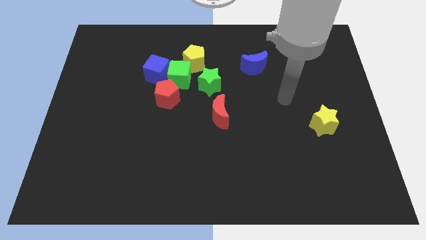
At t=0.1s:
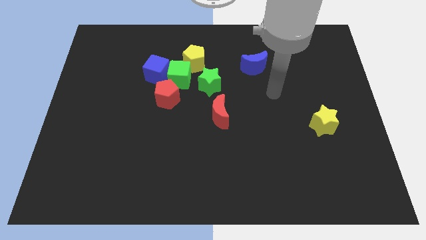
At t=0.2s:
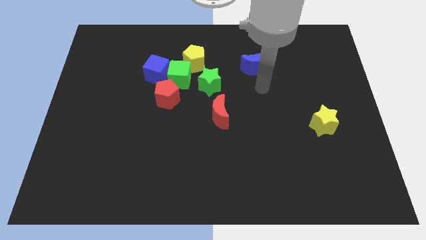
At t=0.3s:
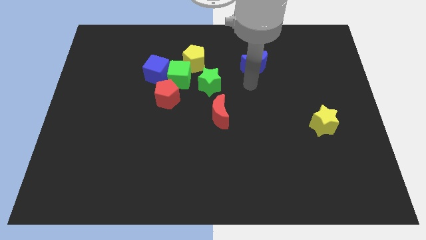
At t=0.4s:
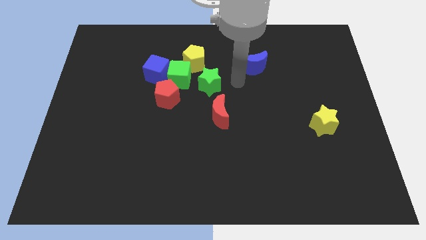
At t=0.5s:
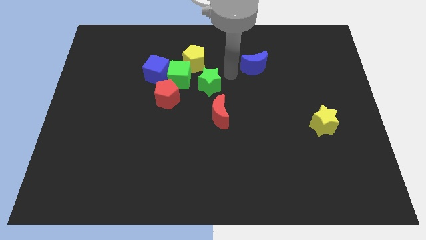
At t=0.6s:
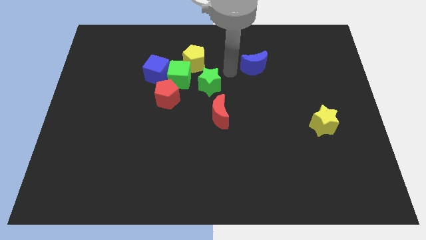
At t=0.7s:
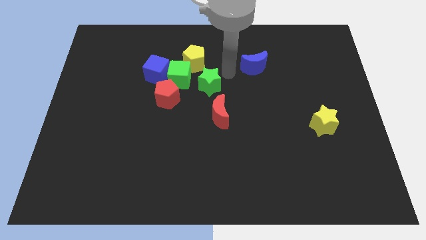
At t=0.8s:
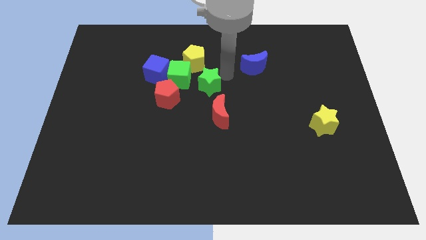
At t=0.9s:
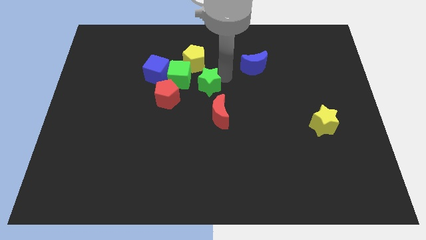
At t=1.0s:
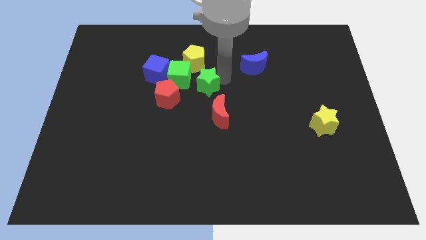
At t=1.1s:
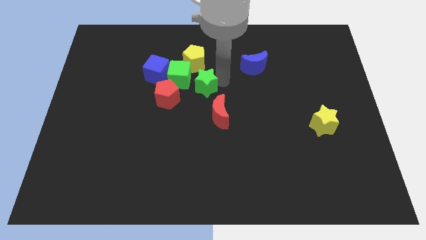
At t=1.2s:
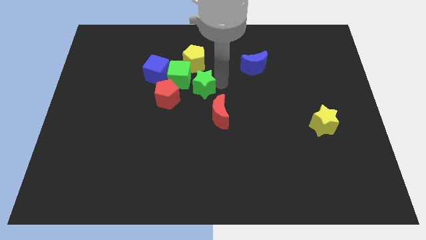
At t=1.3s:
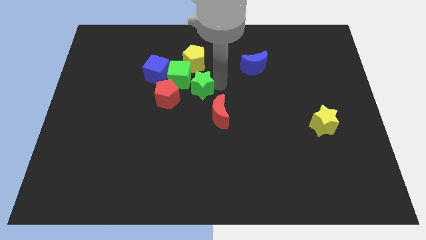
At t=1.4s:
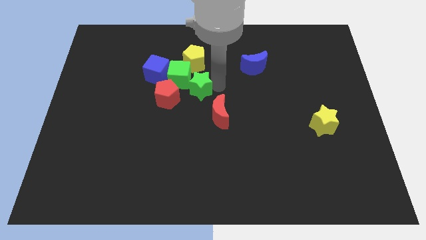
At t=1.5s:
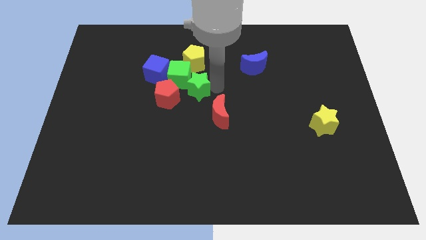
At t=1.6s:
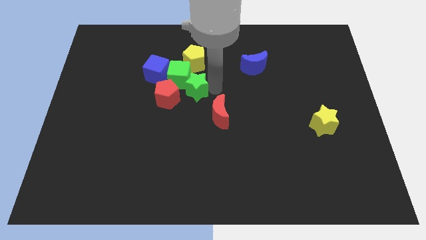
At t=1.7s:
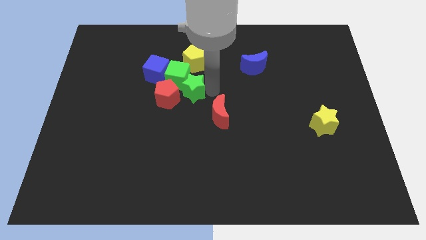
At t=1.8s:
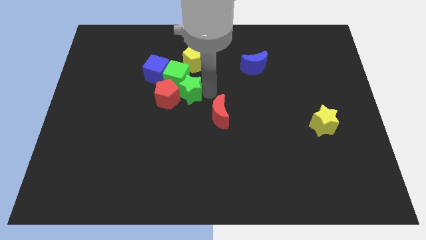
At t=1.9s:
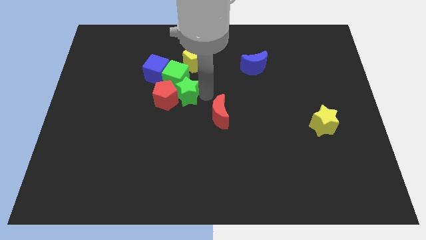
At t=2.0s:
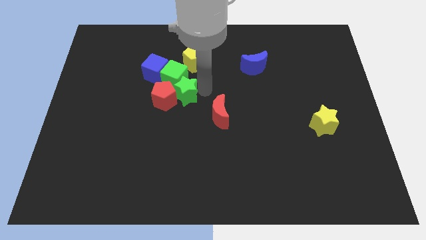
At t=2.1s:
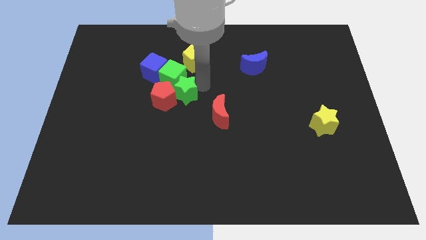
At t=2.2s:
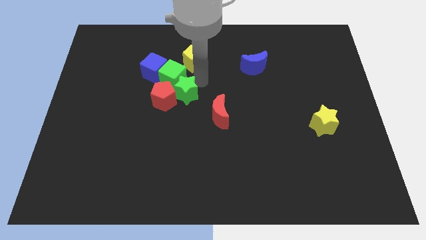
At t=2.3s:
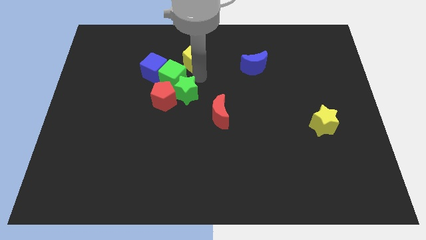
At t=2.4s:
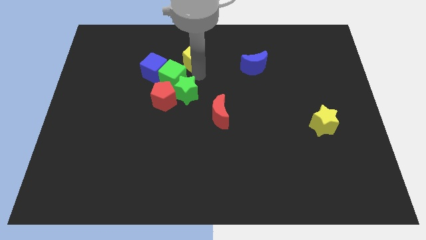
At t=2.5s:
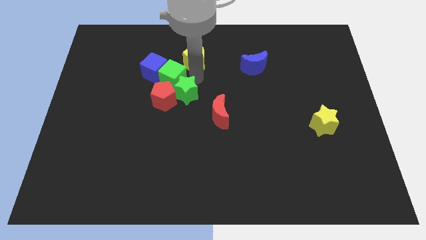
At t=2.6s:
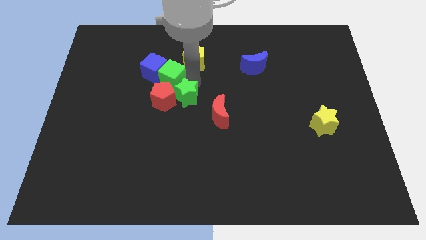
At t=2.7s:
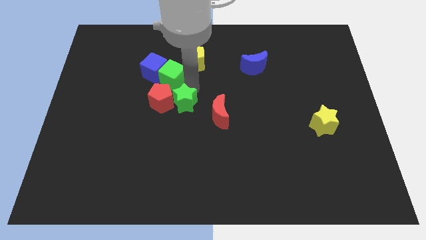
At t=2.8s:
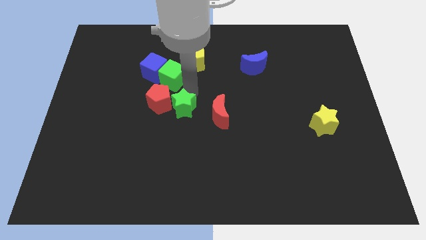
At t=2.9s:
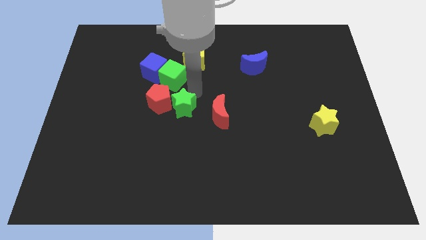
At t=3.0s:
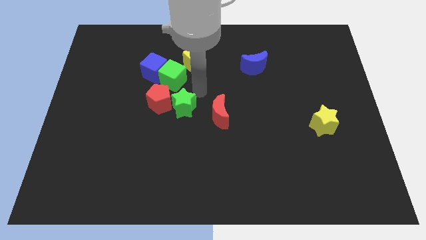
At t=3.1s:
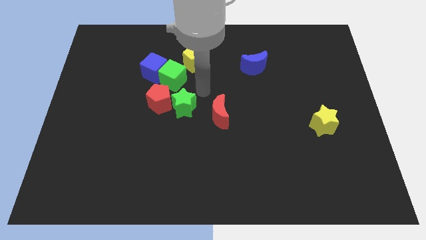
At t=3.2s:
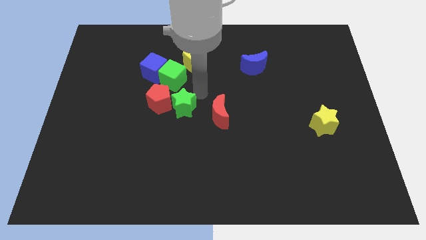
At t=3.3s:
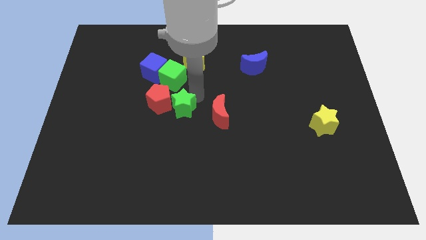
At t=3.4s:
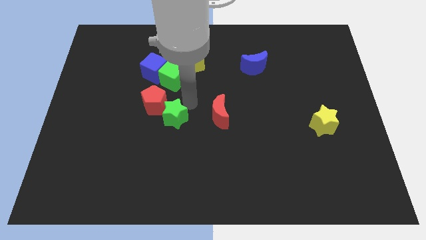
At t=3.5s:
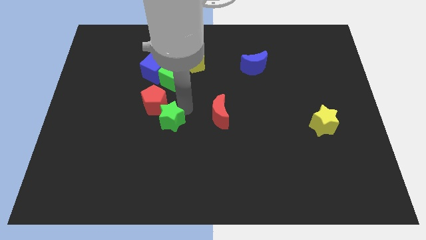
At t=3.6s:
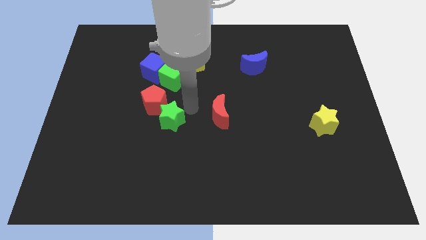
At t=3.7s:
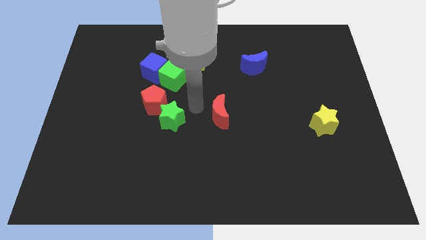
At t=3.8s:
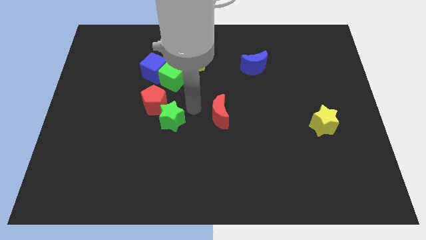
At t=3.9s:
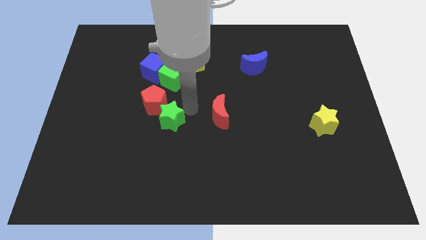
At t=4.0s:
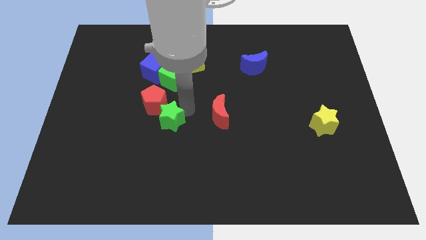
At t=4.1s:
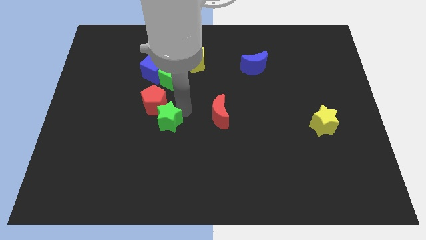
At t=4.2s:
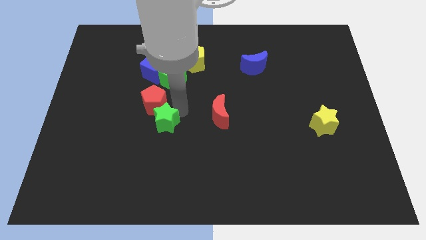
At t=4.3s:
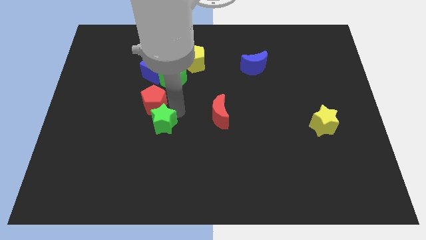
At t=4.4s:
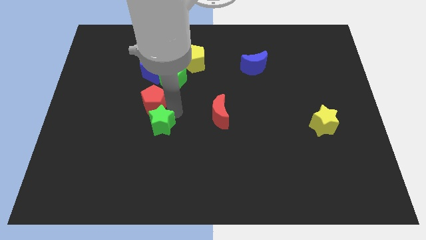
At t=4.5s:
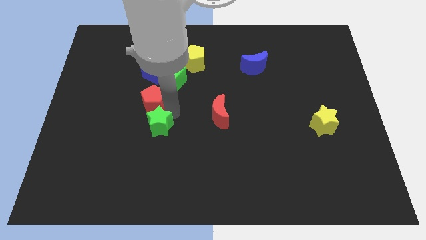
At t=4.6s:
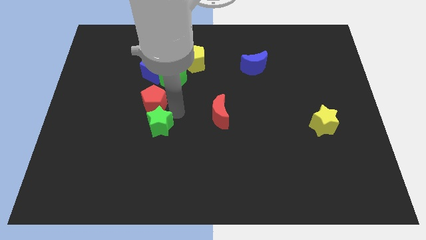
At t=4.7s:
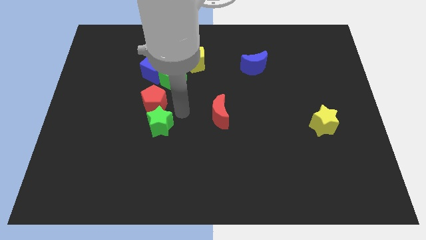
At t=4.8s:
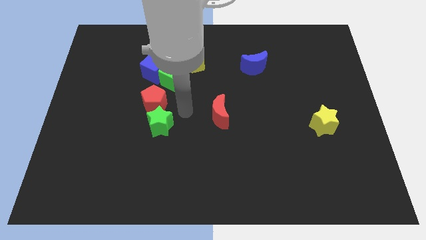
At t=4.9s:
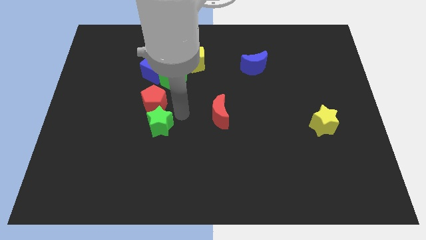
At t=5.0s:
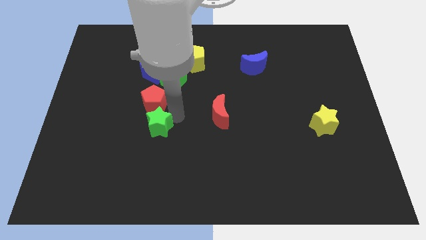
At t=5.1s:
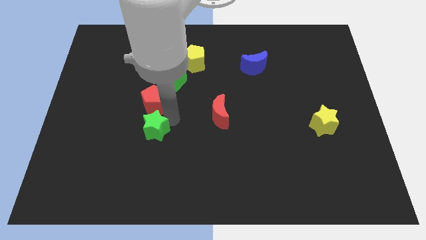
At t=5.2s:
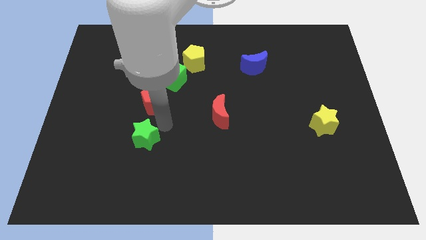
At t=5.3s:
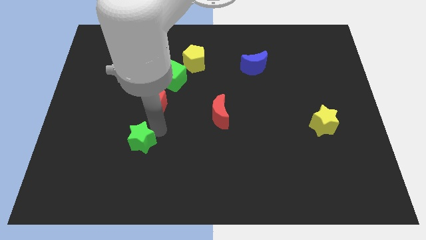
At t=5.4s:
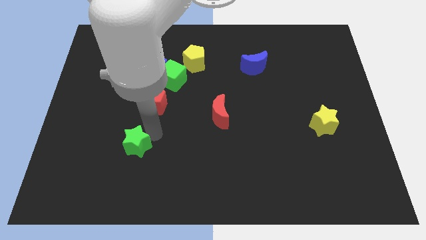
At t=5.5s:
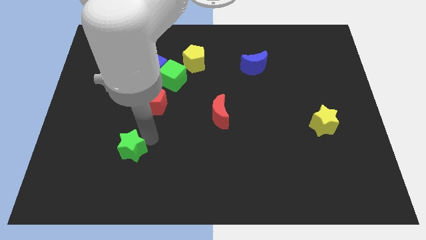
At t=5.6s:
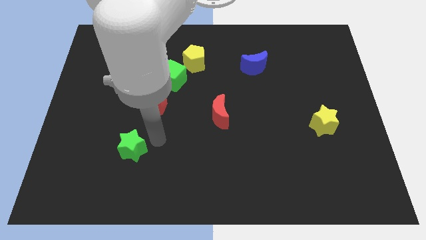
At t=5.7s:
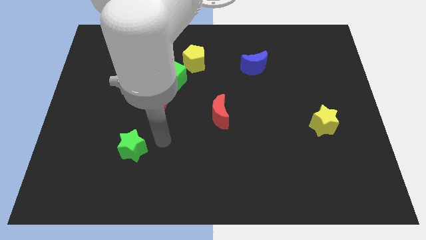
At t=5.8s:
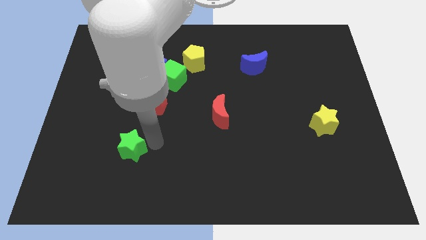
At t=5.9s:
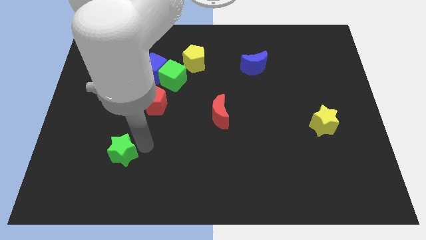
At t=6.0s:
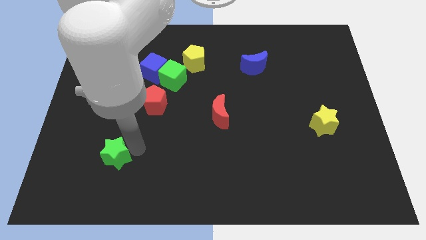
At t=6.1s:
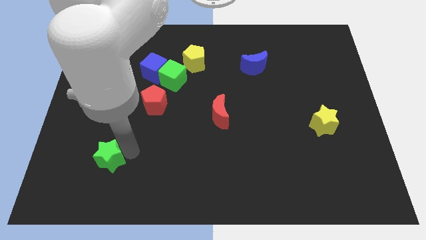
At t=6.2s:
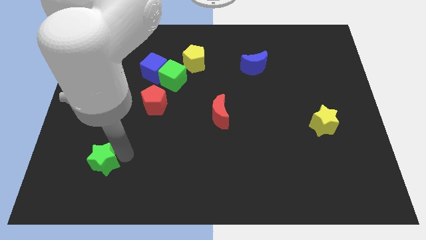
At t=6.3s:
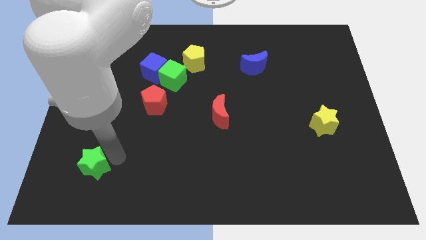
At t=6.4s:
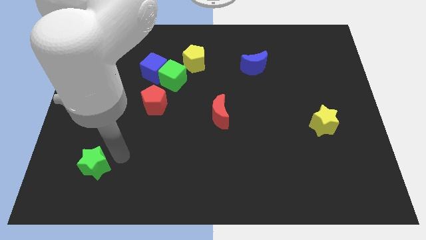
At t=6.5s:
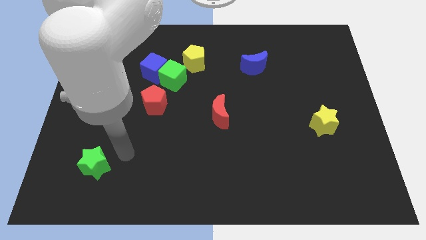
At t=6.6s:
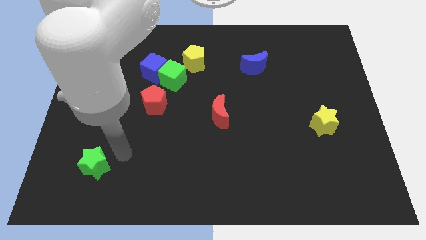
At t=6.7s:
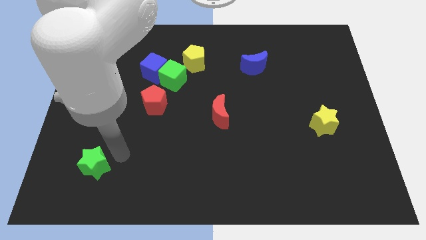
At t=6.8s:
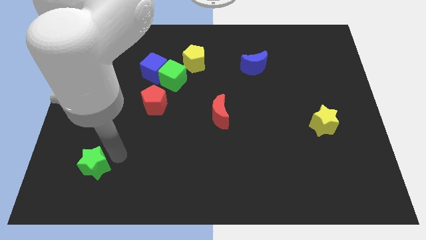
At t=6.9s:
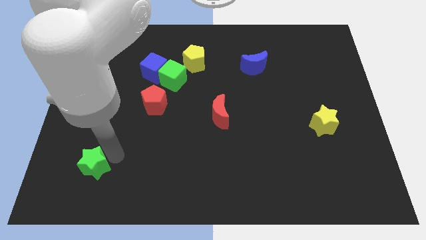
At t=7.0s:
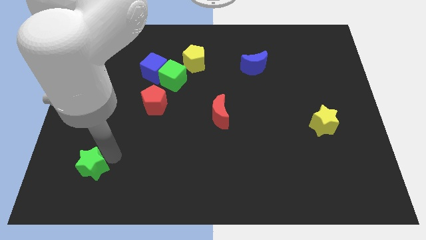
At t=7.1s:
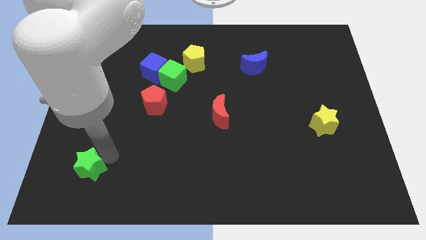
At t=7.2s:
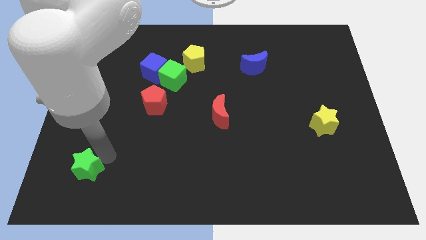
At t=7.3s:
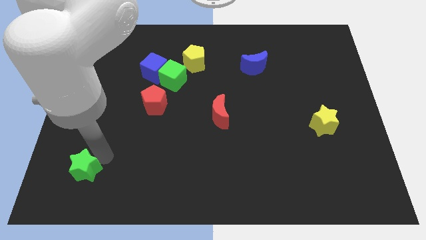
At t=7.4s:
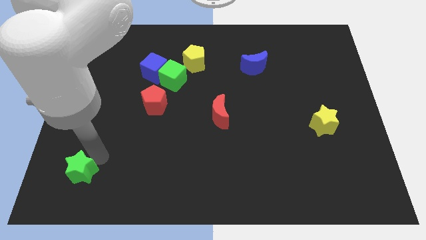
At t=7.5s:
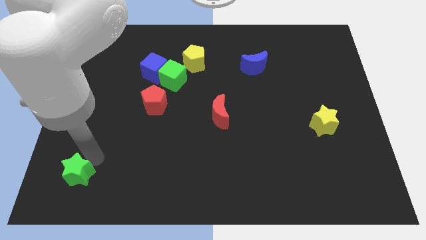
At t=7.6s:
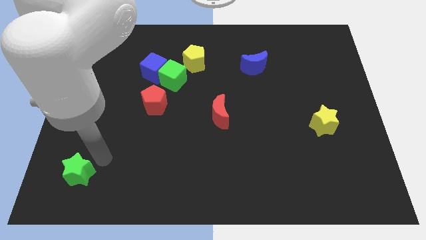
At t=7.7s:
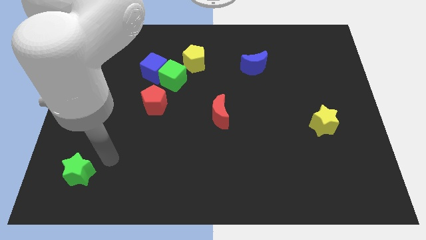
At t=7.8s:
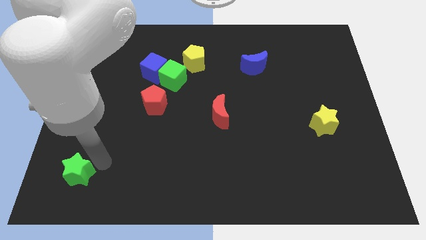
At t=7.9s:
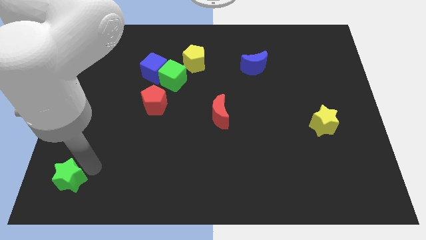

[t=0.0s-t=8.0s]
slide the green star to the bottom left

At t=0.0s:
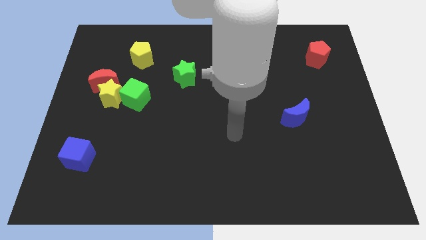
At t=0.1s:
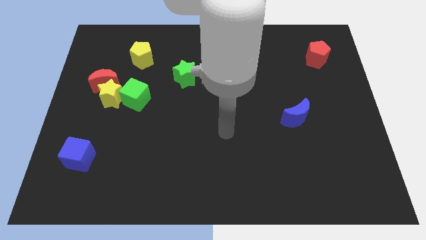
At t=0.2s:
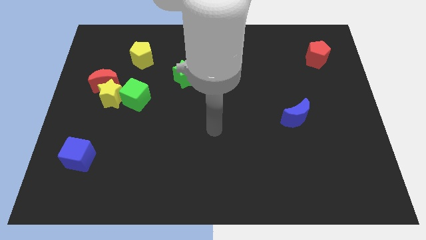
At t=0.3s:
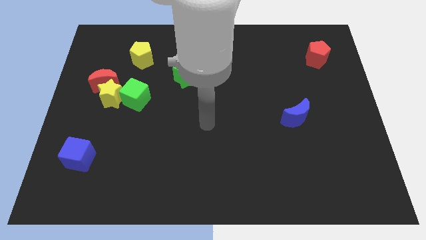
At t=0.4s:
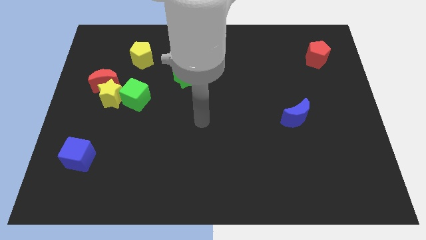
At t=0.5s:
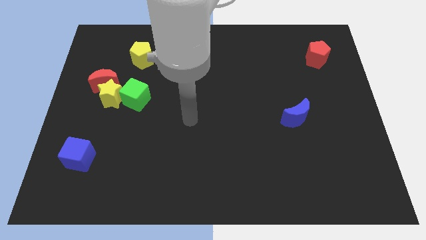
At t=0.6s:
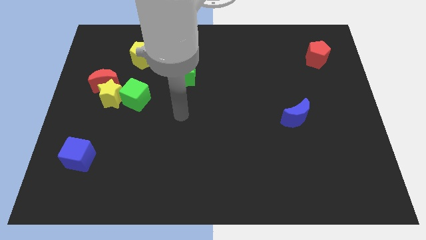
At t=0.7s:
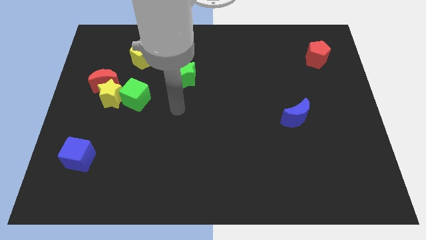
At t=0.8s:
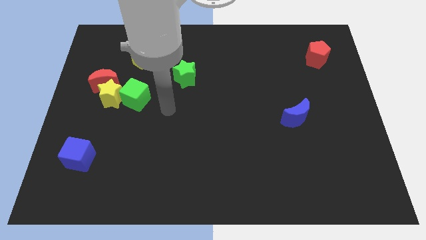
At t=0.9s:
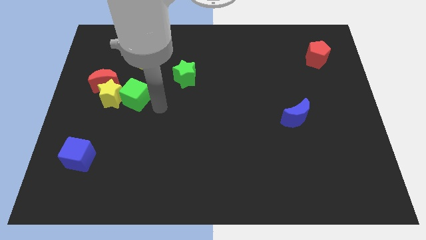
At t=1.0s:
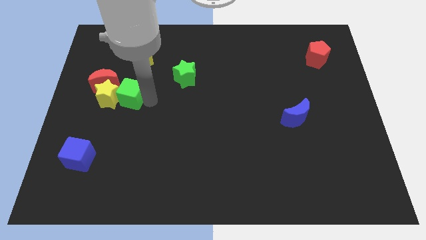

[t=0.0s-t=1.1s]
move the yellow star to the center left
